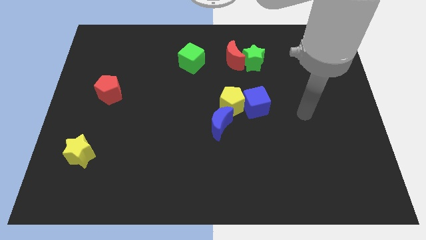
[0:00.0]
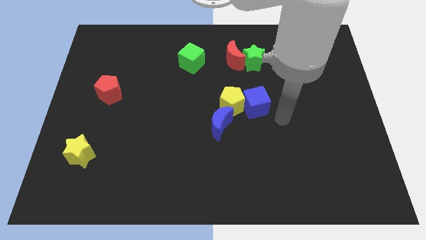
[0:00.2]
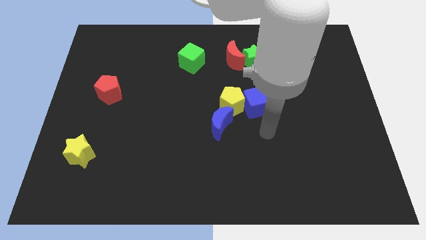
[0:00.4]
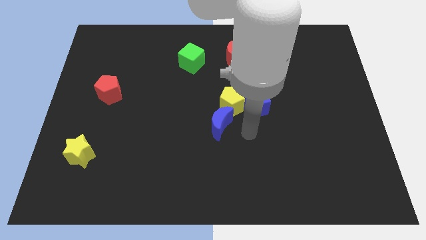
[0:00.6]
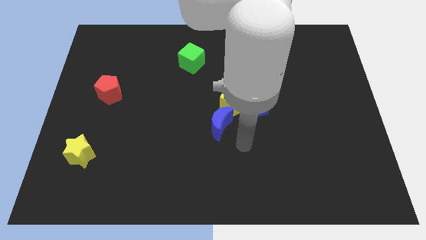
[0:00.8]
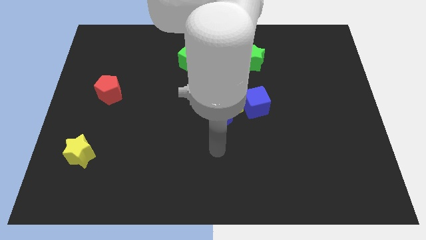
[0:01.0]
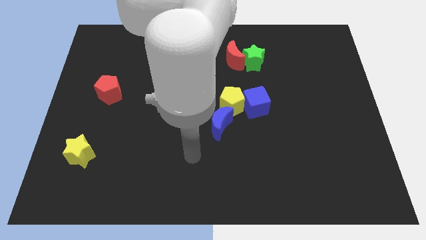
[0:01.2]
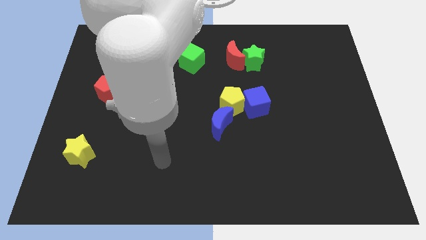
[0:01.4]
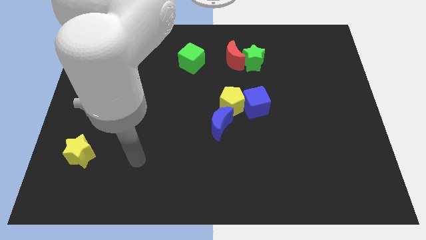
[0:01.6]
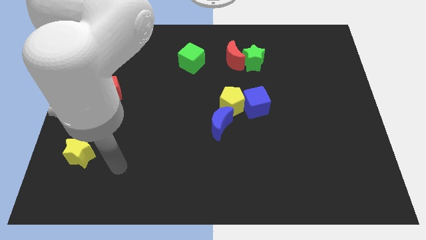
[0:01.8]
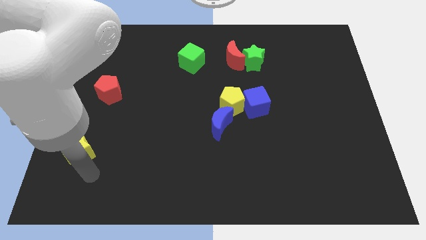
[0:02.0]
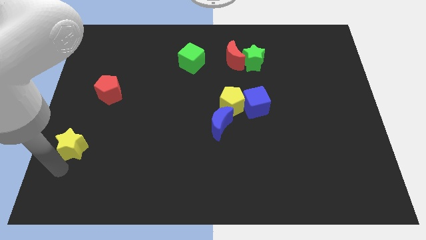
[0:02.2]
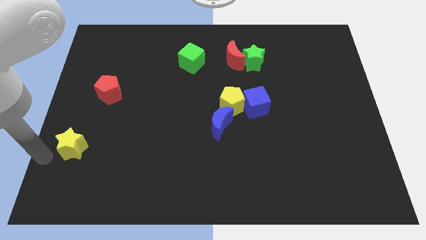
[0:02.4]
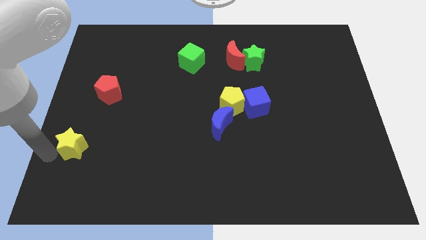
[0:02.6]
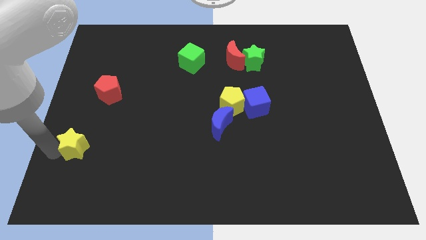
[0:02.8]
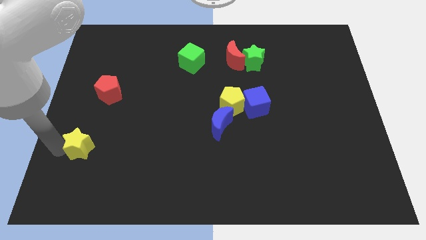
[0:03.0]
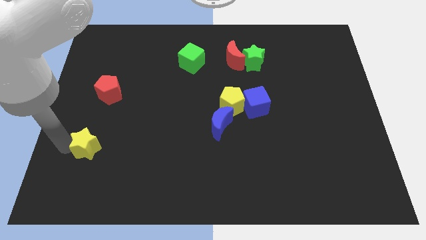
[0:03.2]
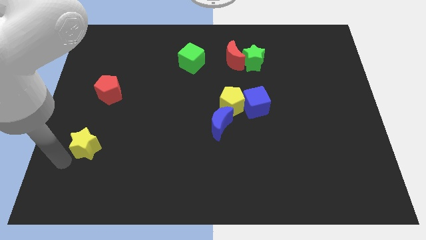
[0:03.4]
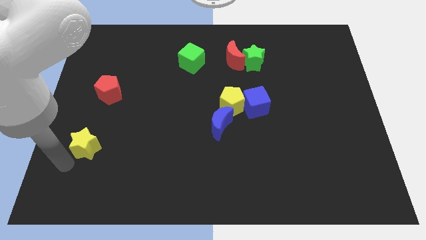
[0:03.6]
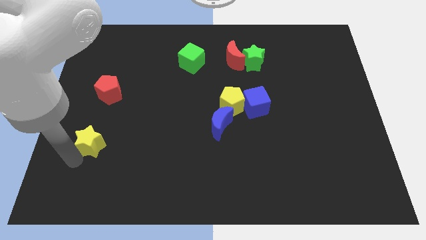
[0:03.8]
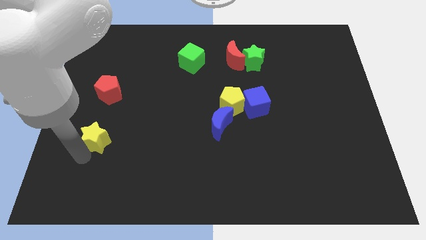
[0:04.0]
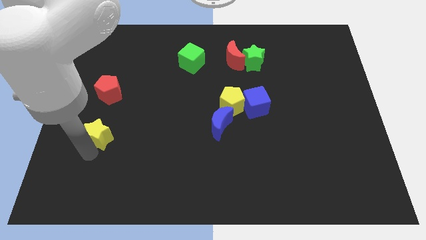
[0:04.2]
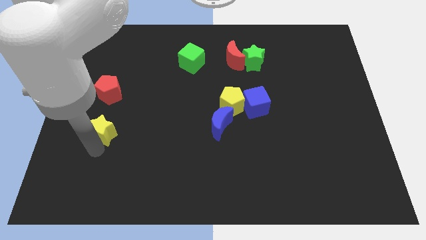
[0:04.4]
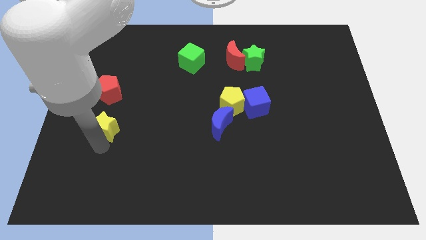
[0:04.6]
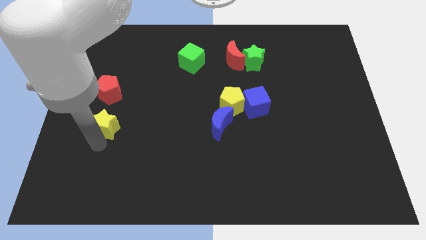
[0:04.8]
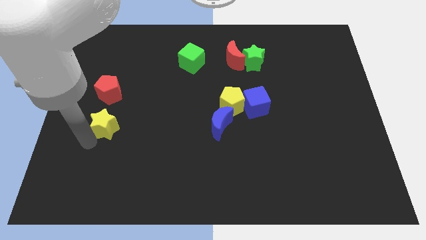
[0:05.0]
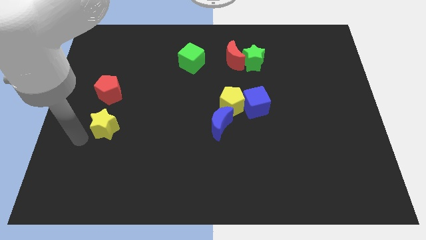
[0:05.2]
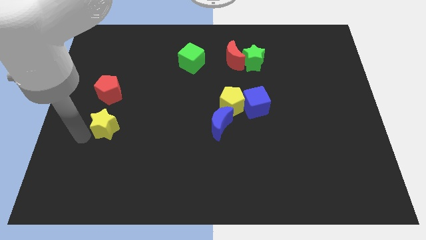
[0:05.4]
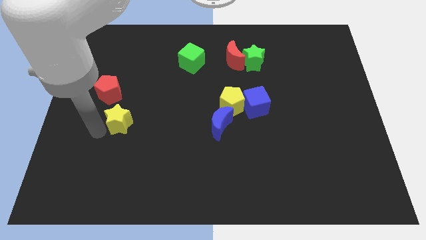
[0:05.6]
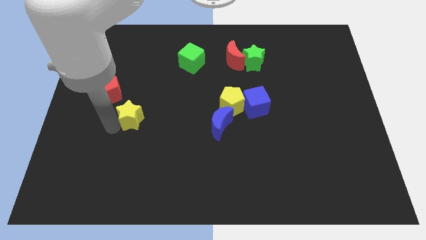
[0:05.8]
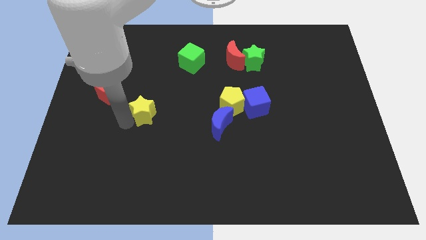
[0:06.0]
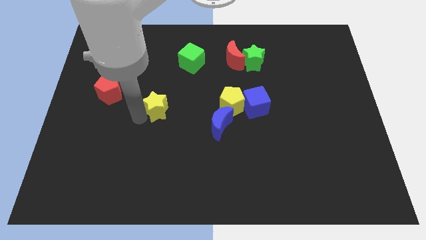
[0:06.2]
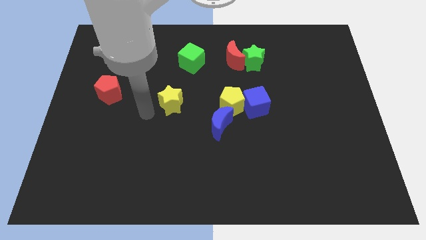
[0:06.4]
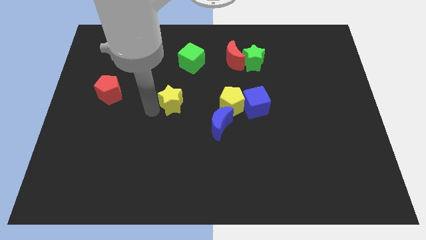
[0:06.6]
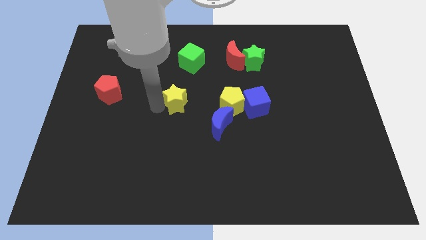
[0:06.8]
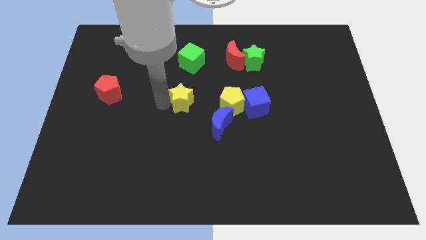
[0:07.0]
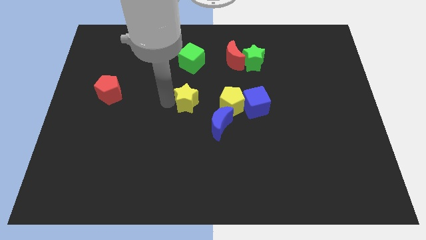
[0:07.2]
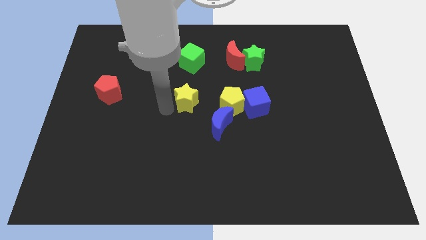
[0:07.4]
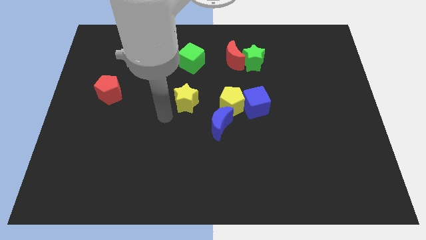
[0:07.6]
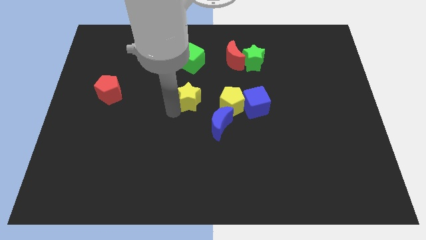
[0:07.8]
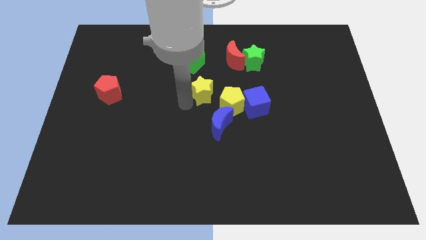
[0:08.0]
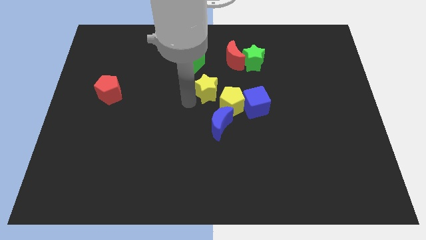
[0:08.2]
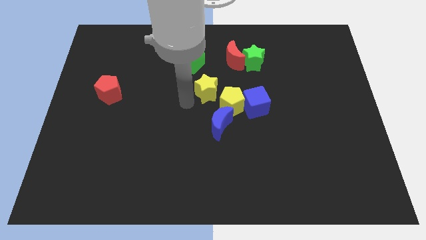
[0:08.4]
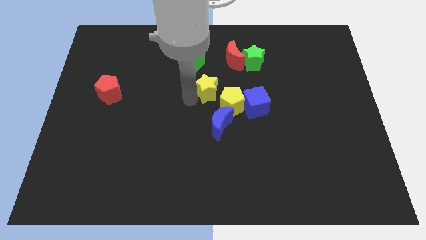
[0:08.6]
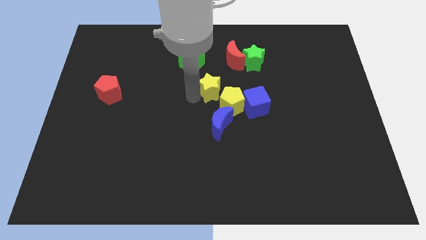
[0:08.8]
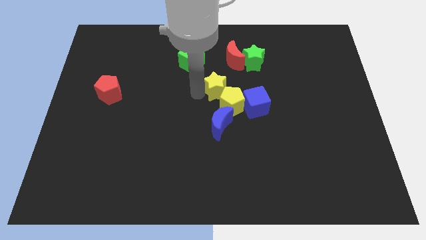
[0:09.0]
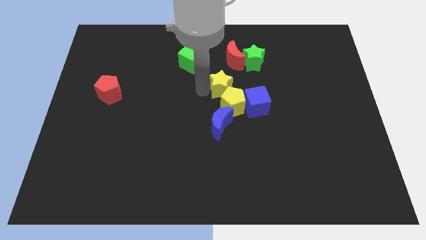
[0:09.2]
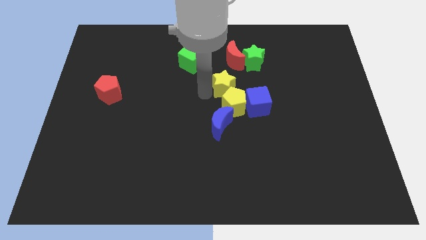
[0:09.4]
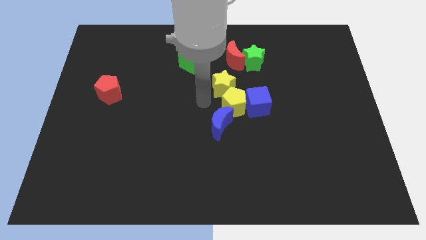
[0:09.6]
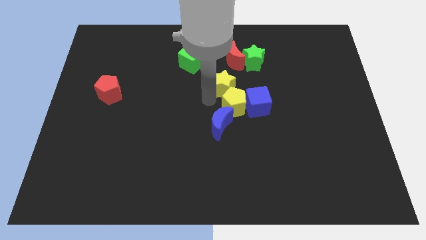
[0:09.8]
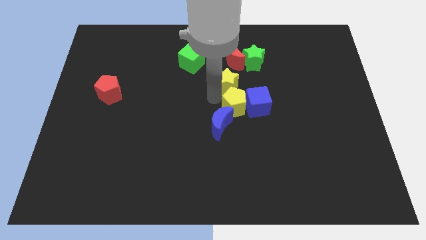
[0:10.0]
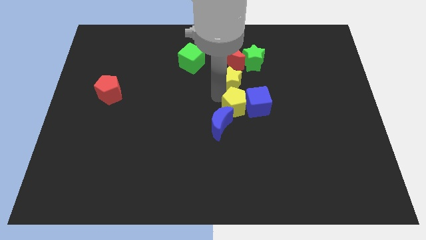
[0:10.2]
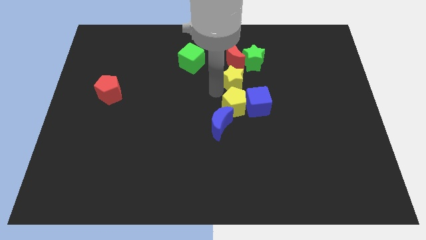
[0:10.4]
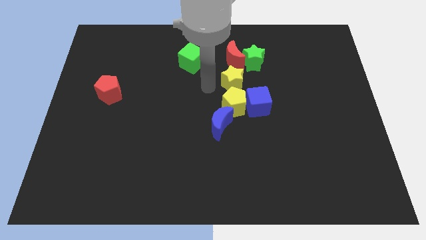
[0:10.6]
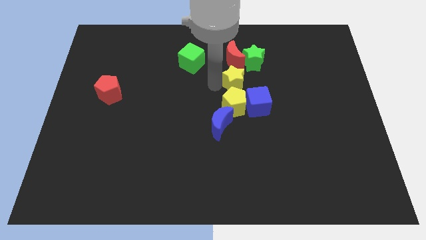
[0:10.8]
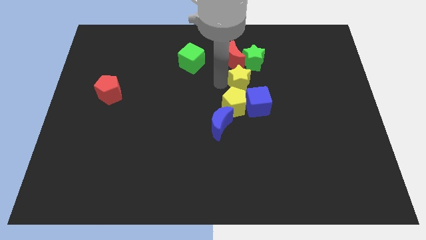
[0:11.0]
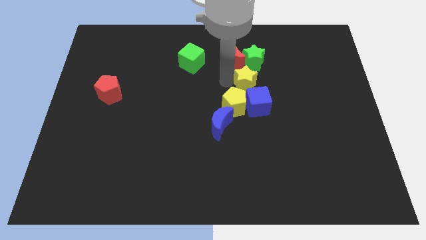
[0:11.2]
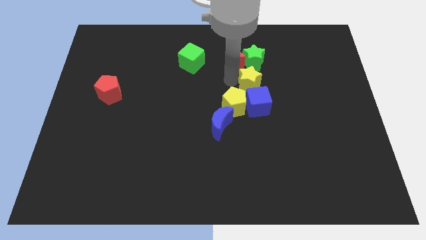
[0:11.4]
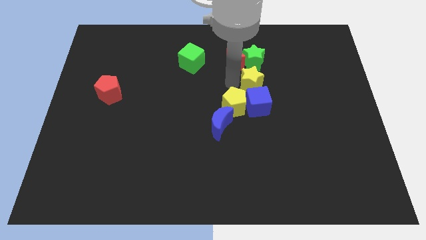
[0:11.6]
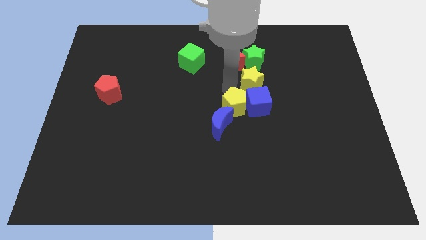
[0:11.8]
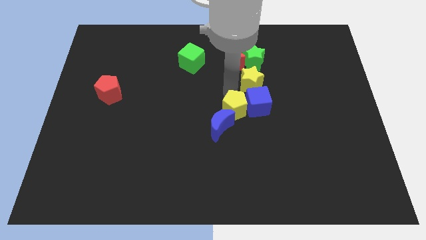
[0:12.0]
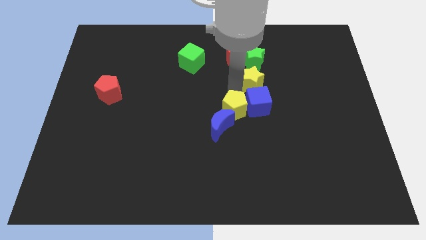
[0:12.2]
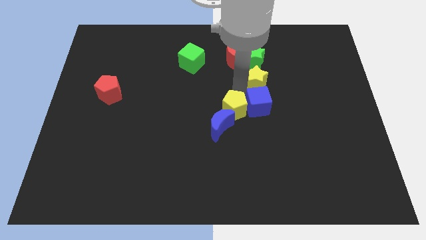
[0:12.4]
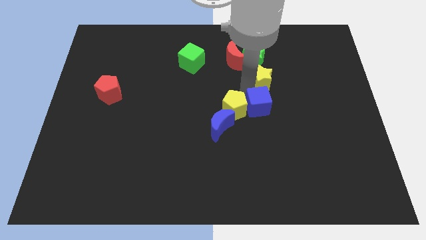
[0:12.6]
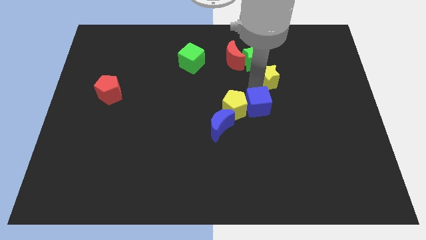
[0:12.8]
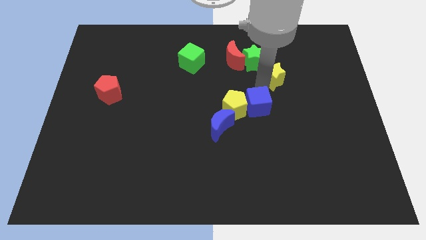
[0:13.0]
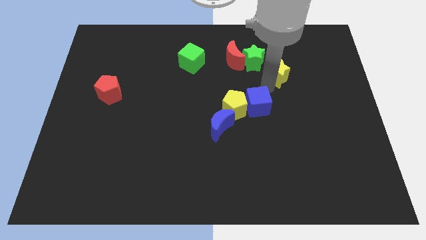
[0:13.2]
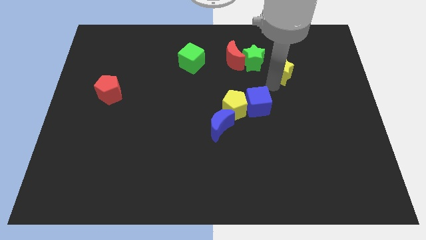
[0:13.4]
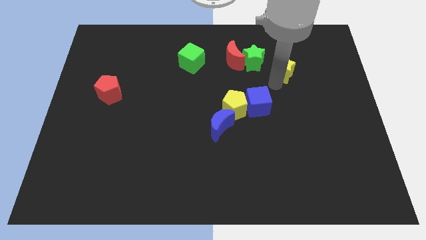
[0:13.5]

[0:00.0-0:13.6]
push the yellow star to the right side of the red moon

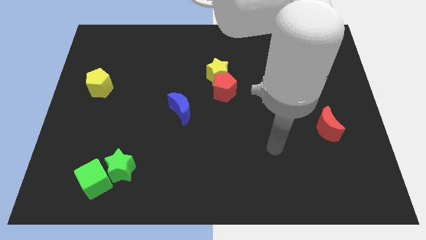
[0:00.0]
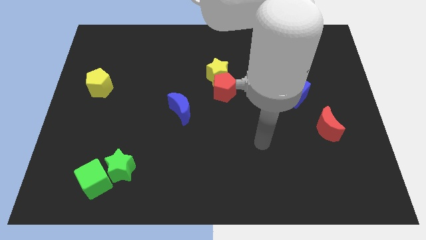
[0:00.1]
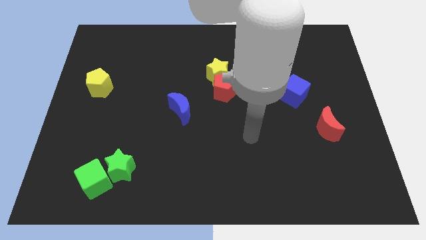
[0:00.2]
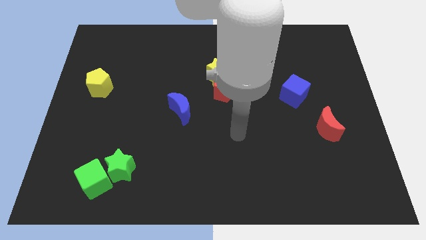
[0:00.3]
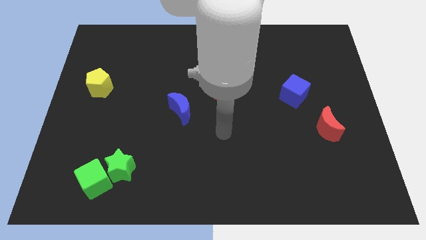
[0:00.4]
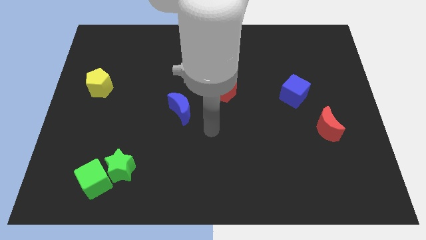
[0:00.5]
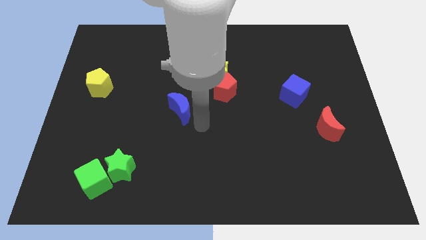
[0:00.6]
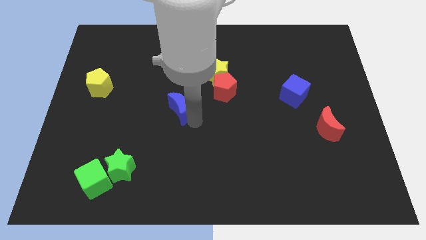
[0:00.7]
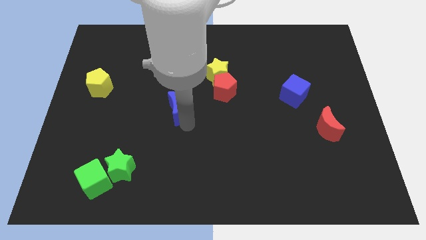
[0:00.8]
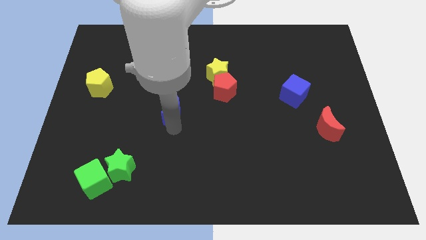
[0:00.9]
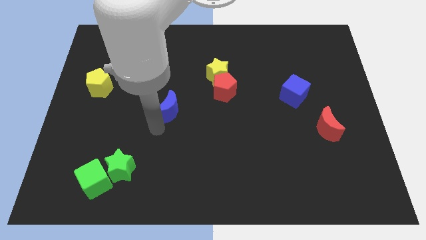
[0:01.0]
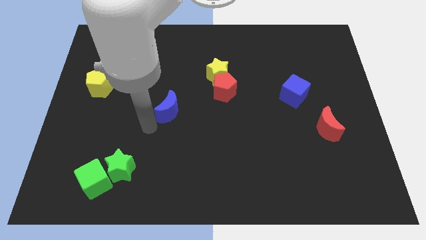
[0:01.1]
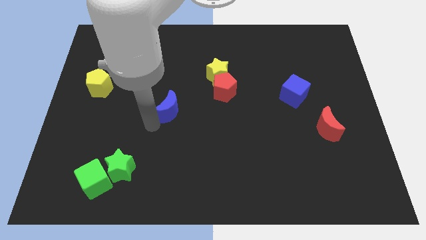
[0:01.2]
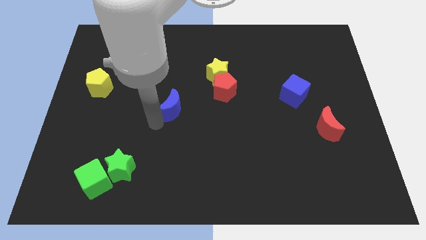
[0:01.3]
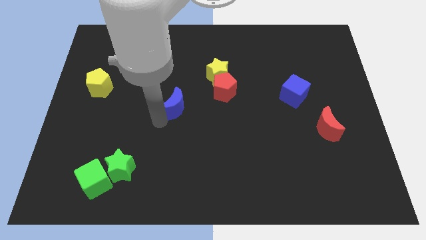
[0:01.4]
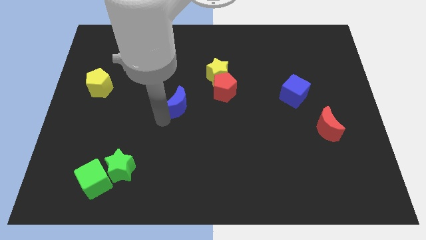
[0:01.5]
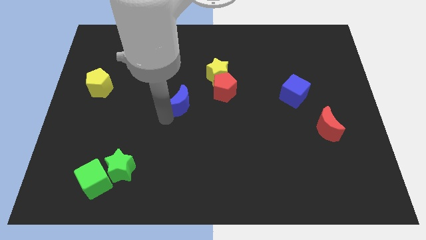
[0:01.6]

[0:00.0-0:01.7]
move the blue moon to the bottom left side of the yellow star
